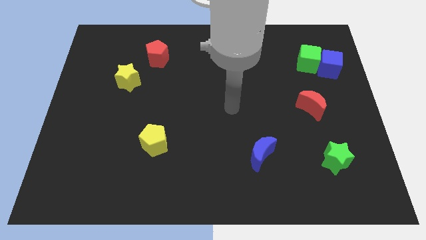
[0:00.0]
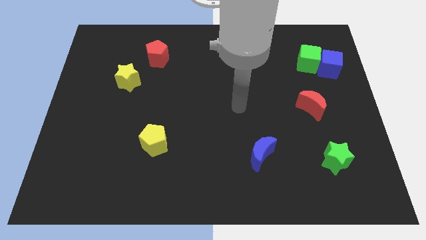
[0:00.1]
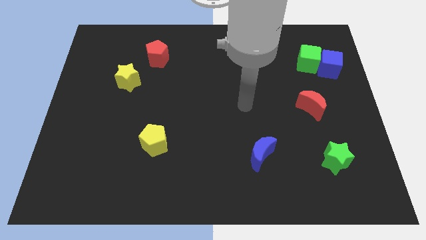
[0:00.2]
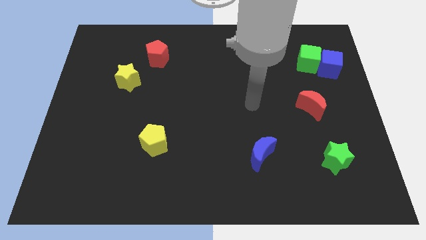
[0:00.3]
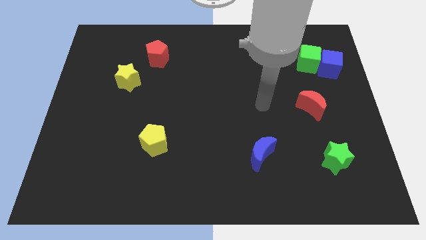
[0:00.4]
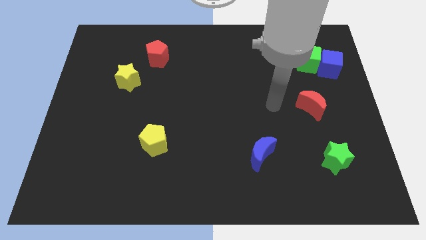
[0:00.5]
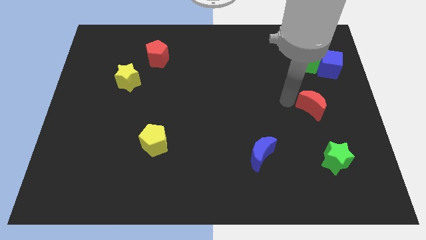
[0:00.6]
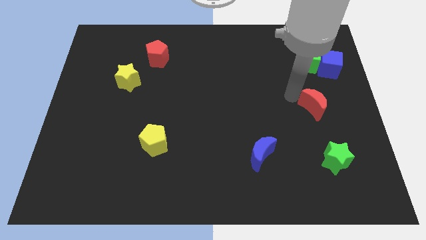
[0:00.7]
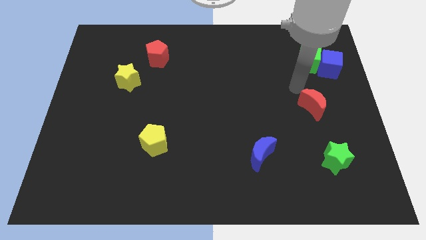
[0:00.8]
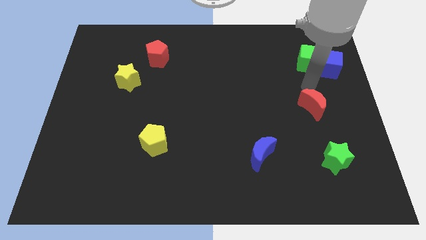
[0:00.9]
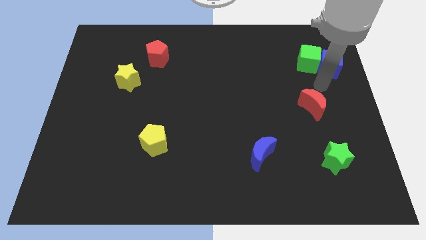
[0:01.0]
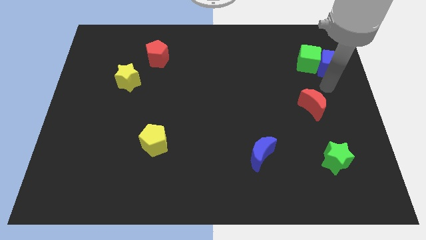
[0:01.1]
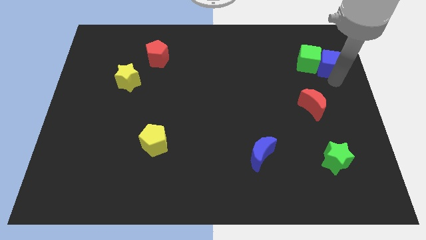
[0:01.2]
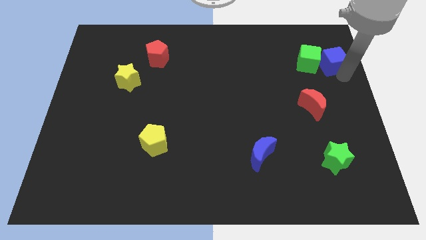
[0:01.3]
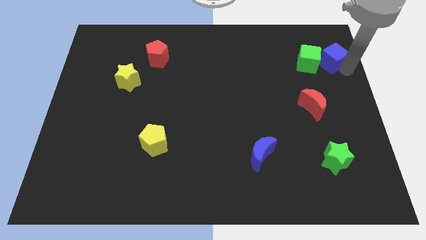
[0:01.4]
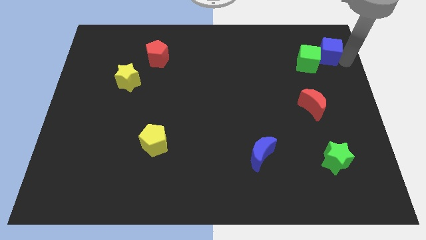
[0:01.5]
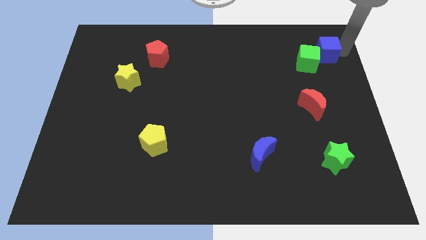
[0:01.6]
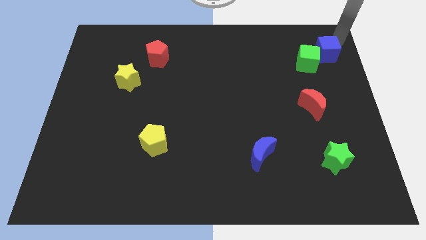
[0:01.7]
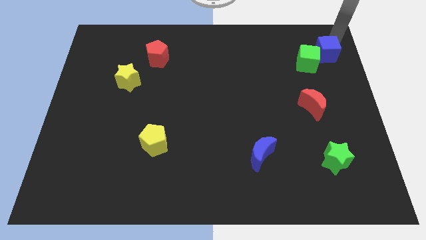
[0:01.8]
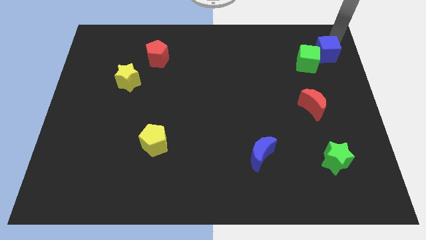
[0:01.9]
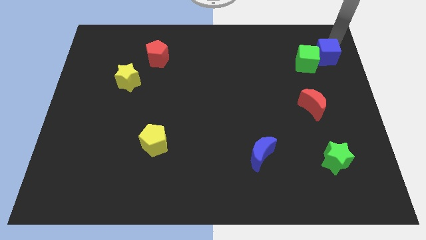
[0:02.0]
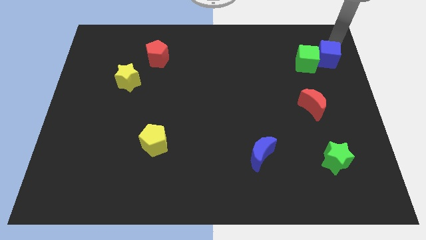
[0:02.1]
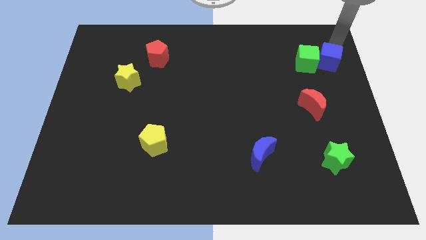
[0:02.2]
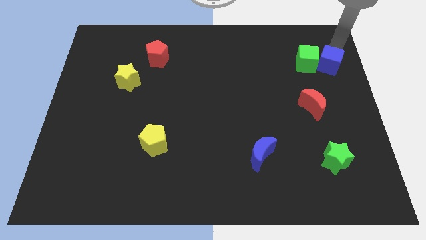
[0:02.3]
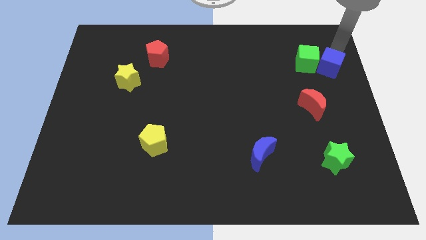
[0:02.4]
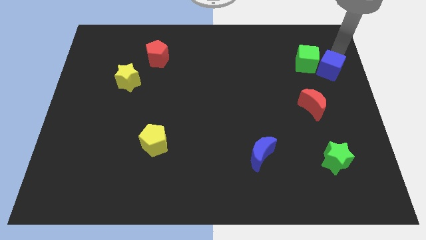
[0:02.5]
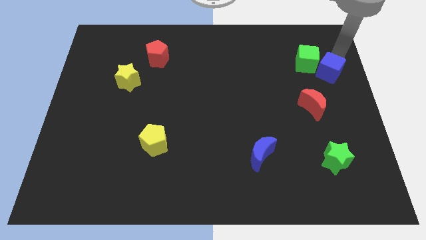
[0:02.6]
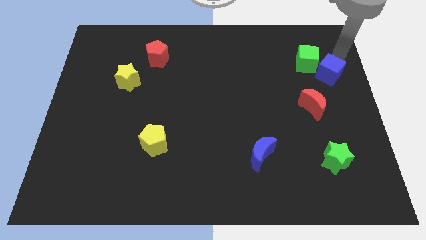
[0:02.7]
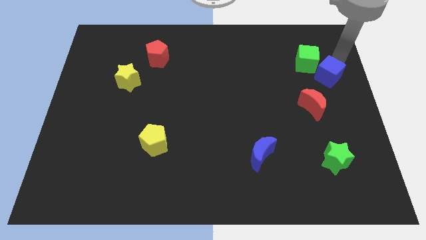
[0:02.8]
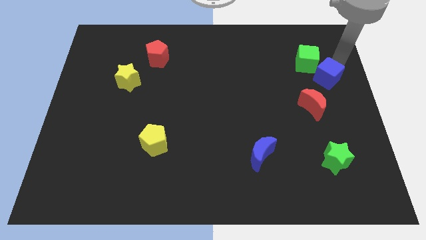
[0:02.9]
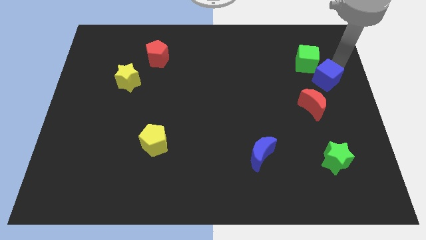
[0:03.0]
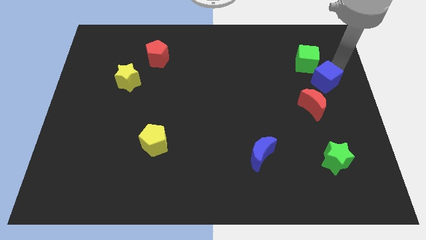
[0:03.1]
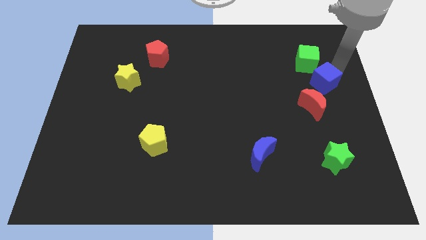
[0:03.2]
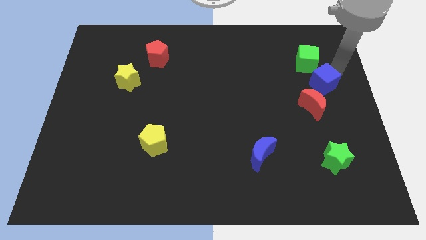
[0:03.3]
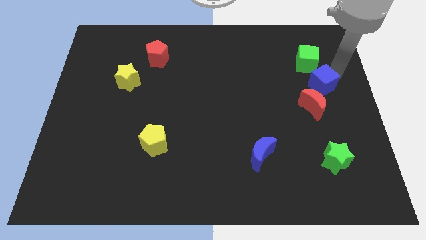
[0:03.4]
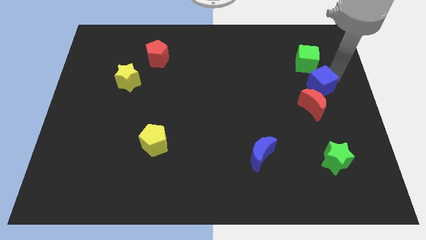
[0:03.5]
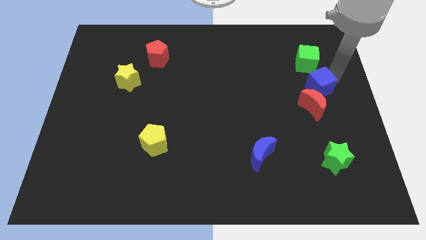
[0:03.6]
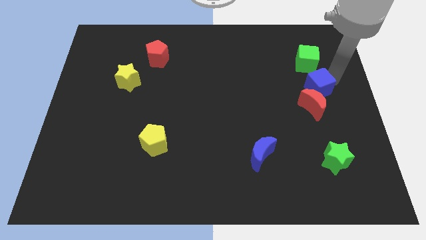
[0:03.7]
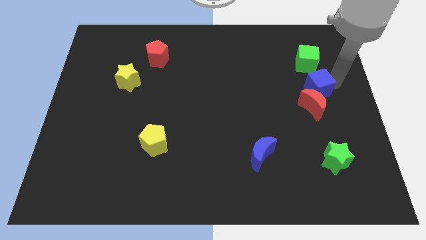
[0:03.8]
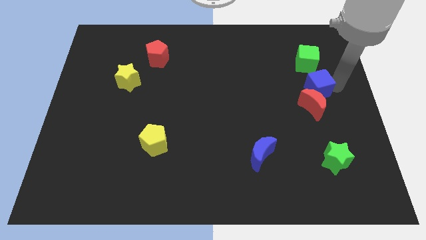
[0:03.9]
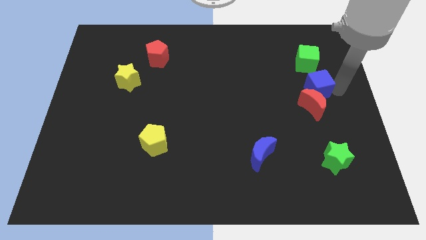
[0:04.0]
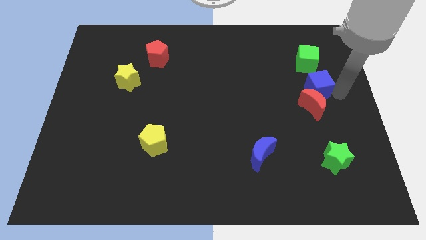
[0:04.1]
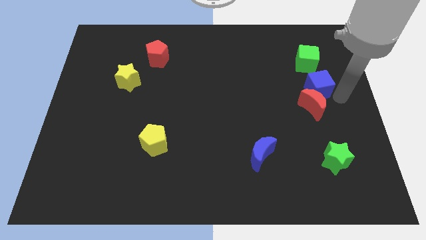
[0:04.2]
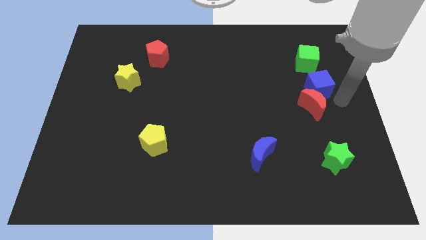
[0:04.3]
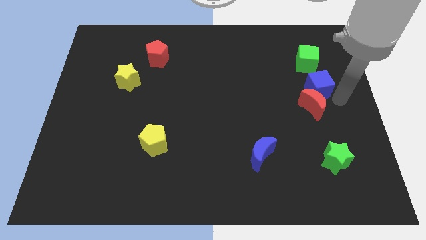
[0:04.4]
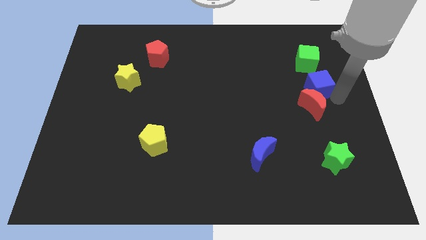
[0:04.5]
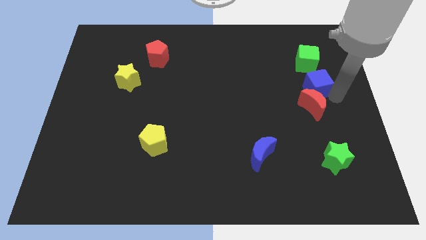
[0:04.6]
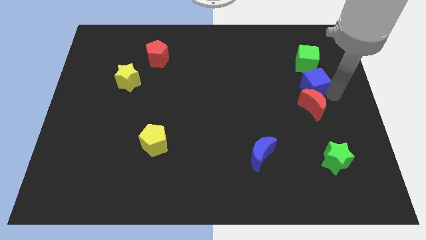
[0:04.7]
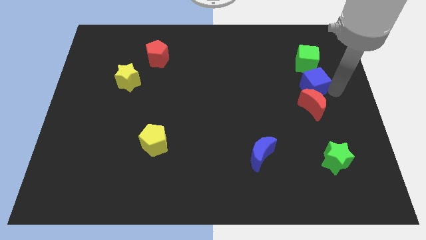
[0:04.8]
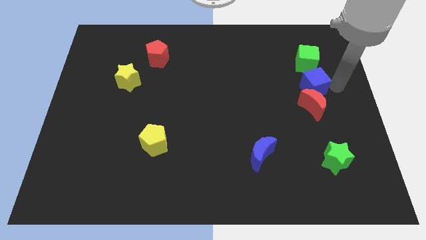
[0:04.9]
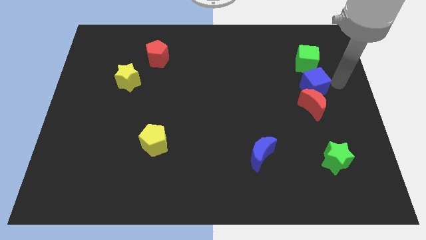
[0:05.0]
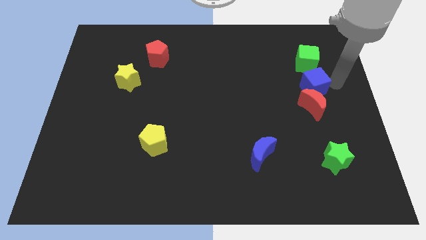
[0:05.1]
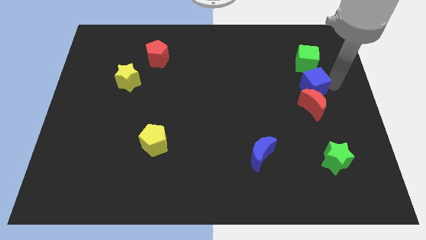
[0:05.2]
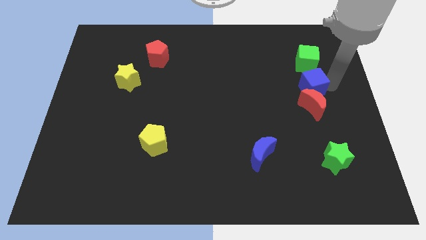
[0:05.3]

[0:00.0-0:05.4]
push the blue cube to the top left of the red moon

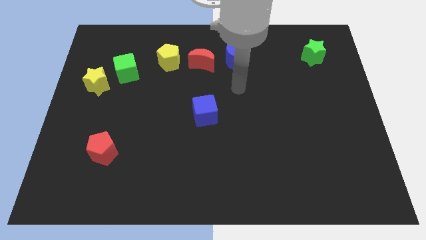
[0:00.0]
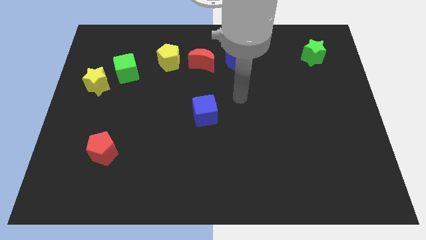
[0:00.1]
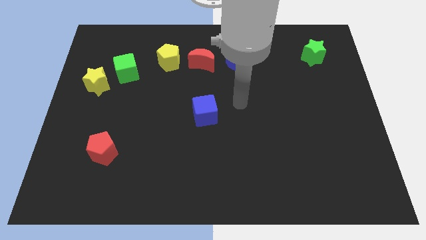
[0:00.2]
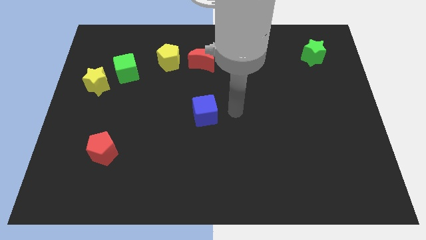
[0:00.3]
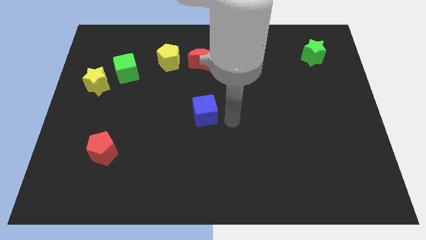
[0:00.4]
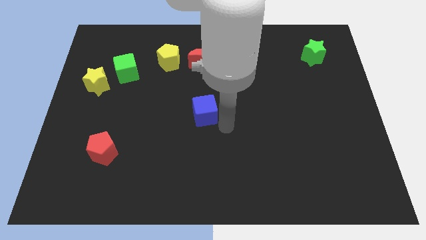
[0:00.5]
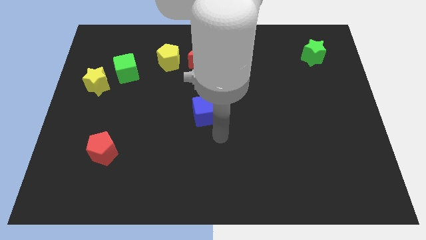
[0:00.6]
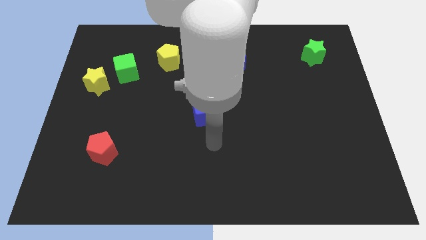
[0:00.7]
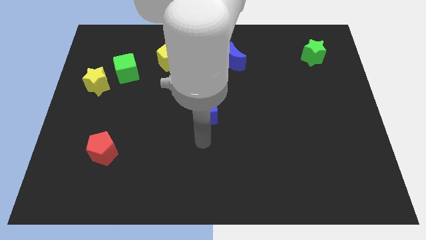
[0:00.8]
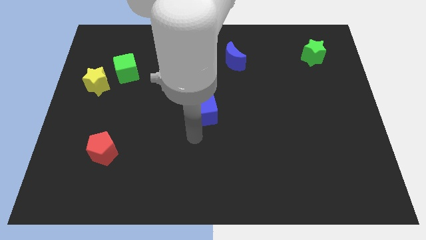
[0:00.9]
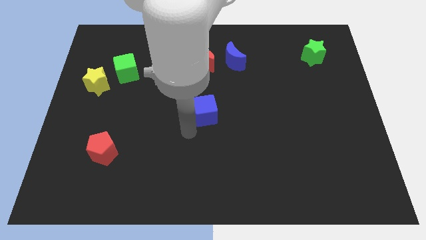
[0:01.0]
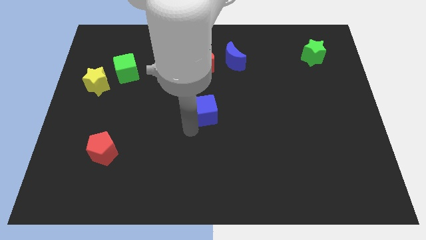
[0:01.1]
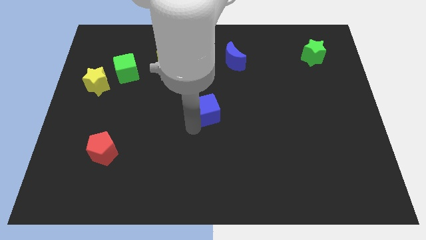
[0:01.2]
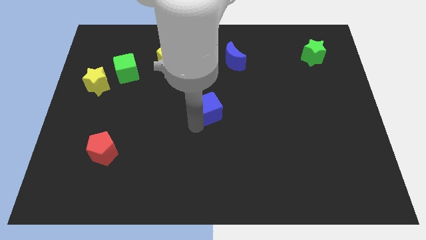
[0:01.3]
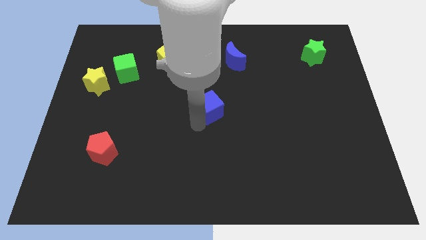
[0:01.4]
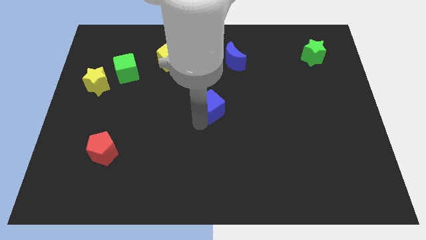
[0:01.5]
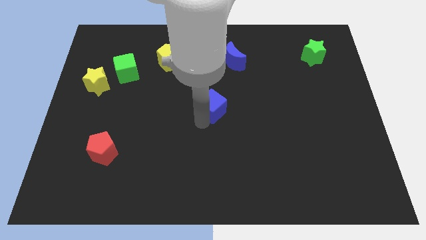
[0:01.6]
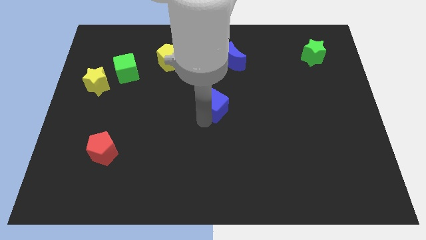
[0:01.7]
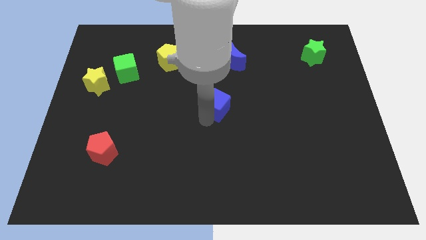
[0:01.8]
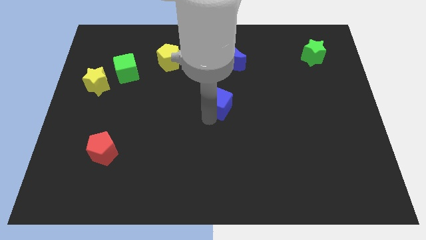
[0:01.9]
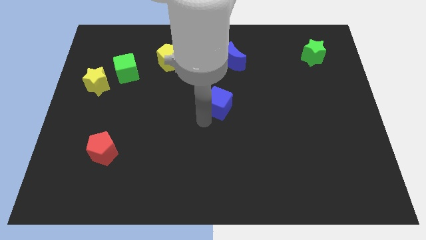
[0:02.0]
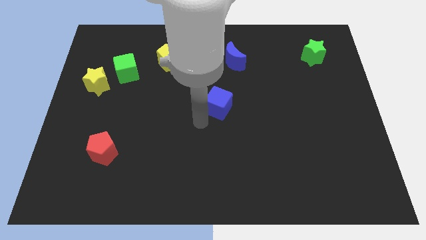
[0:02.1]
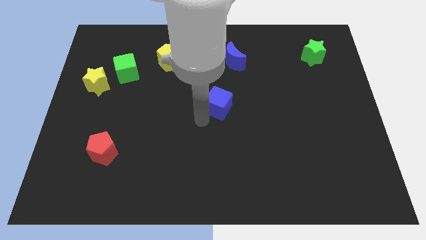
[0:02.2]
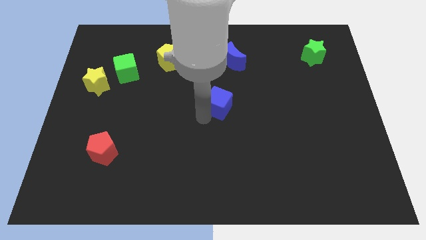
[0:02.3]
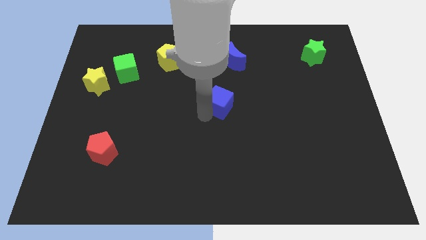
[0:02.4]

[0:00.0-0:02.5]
slide the blue cube to the bottom of the blue moon

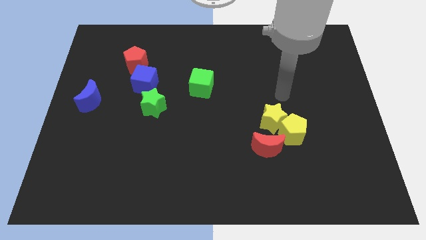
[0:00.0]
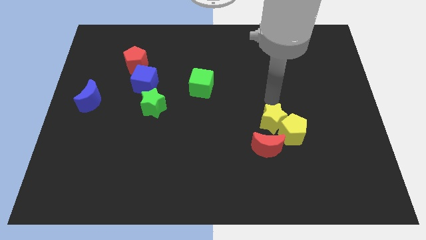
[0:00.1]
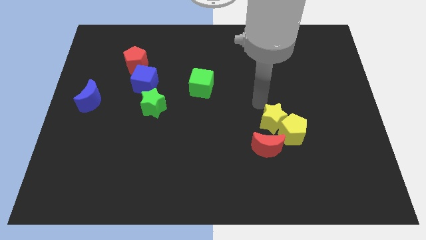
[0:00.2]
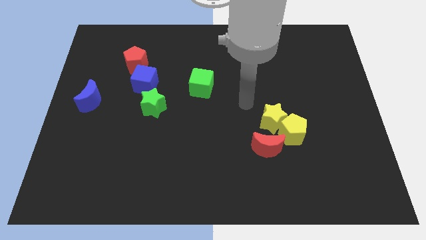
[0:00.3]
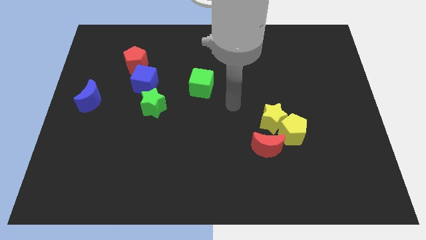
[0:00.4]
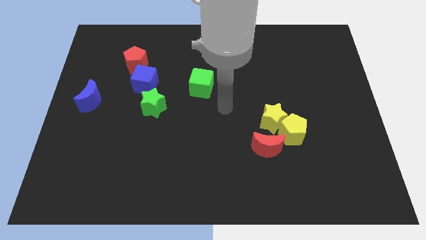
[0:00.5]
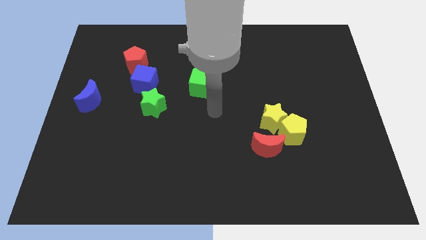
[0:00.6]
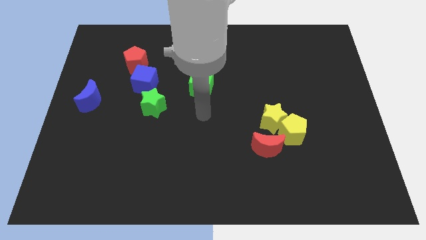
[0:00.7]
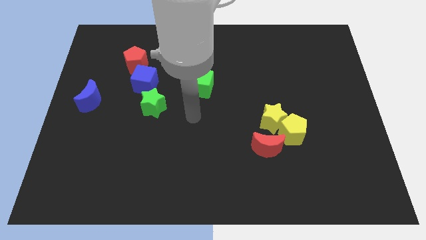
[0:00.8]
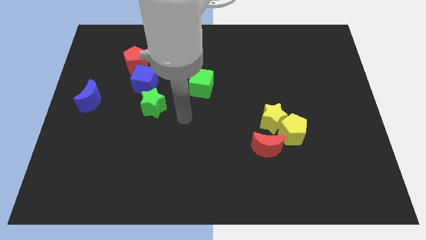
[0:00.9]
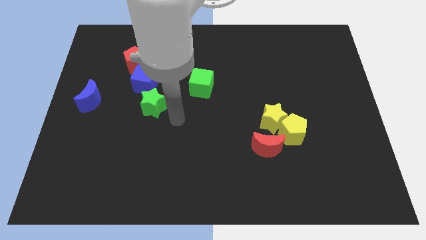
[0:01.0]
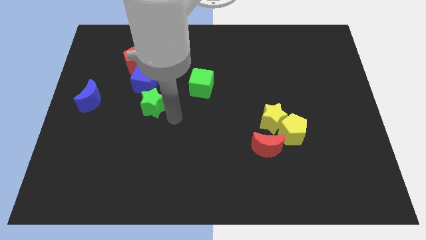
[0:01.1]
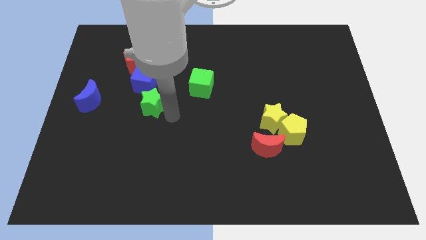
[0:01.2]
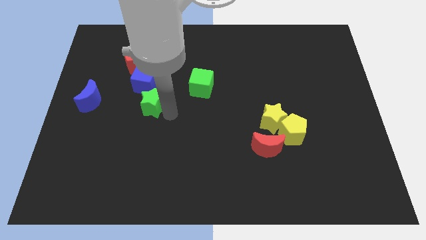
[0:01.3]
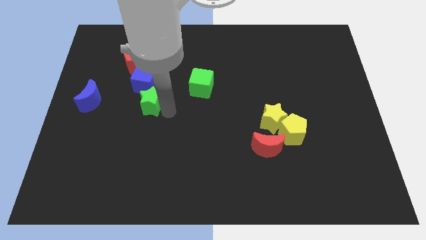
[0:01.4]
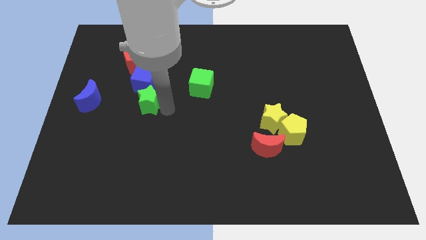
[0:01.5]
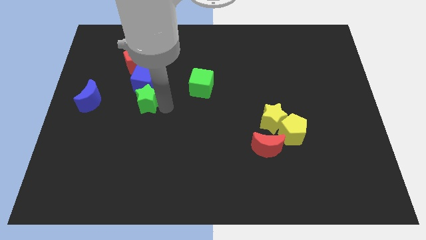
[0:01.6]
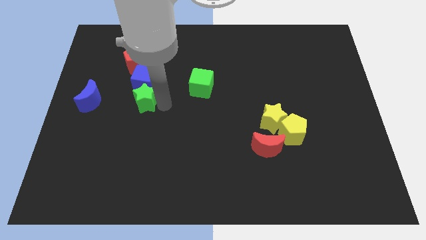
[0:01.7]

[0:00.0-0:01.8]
put the green star to the bottom of the red pentagon
